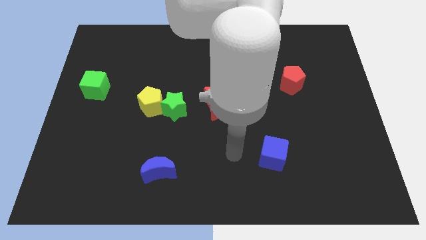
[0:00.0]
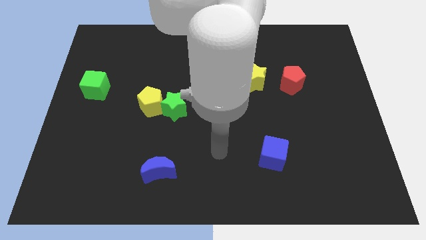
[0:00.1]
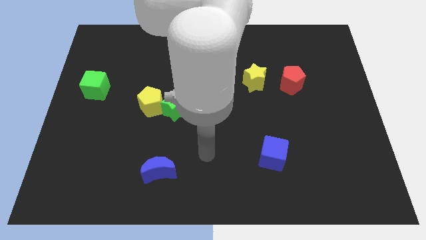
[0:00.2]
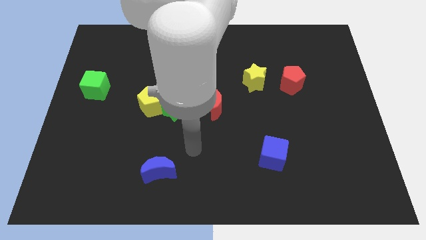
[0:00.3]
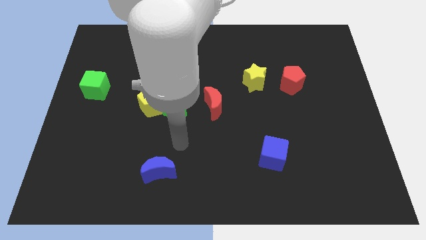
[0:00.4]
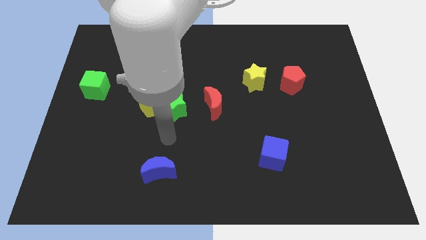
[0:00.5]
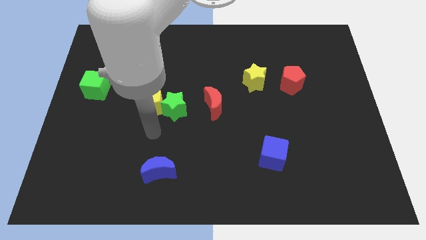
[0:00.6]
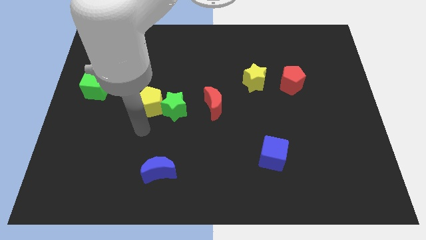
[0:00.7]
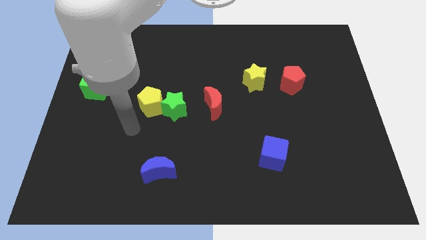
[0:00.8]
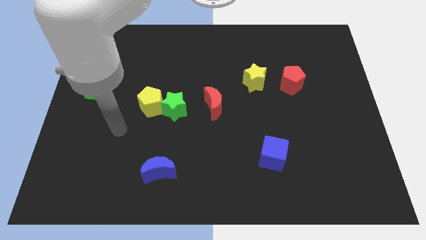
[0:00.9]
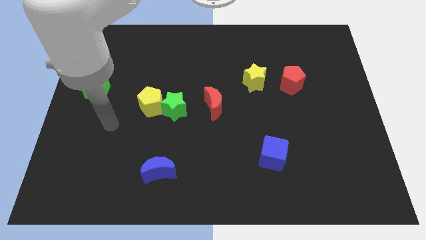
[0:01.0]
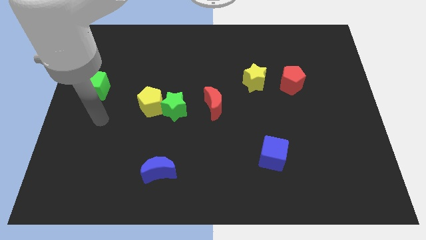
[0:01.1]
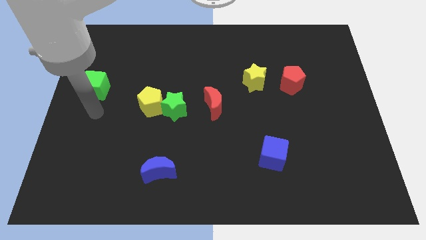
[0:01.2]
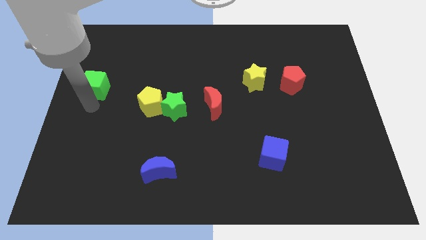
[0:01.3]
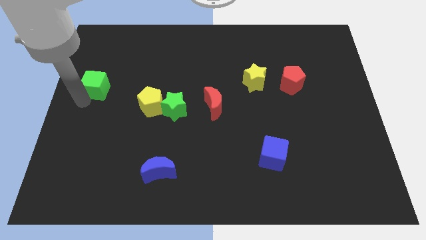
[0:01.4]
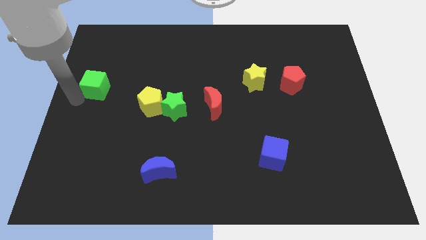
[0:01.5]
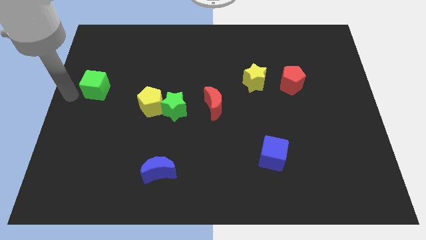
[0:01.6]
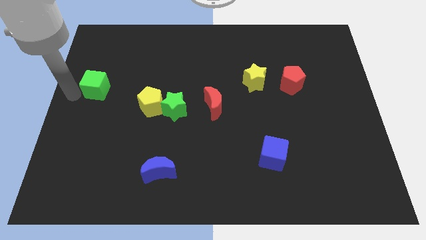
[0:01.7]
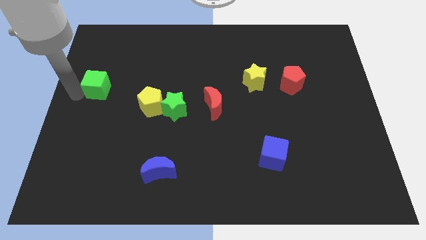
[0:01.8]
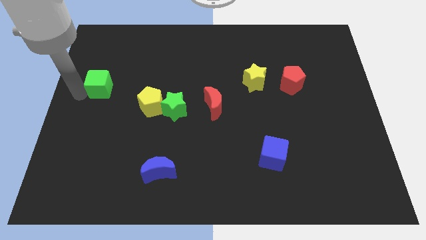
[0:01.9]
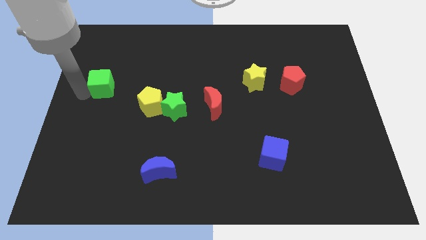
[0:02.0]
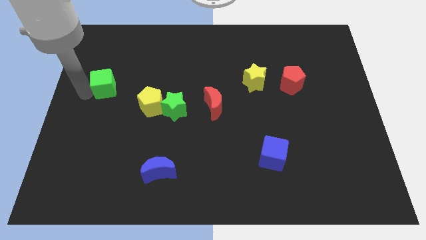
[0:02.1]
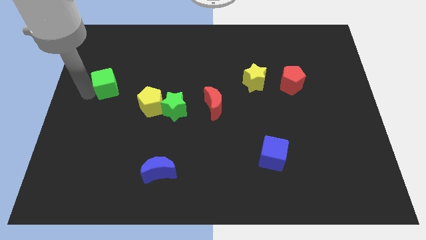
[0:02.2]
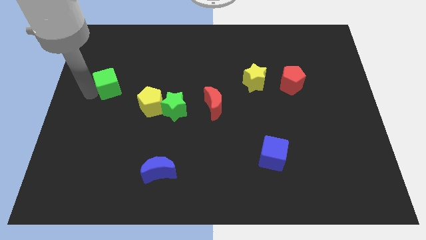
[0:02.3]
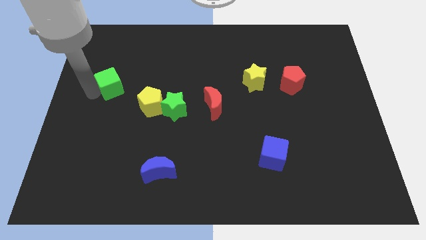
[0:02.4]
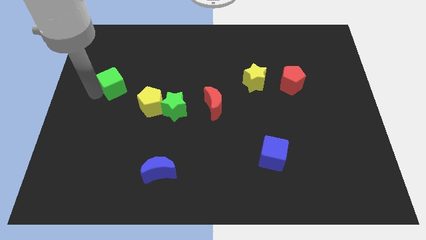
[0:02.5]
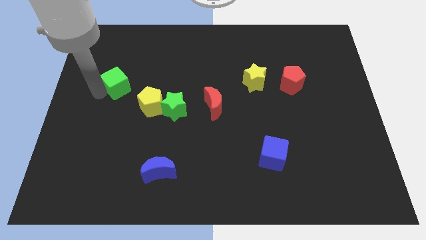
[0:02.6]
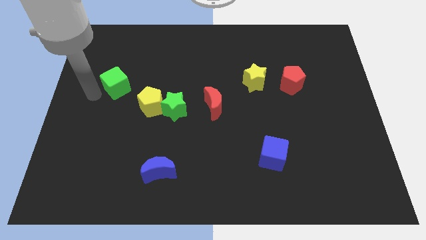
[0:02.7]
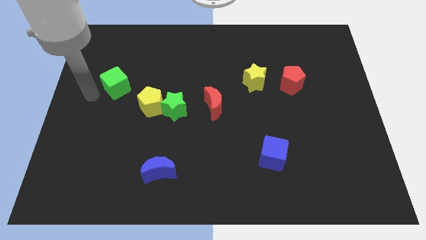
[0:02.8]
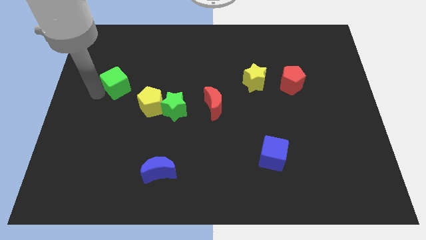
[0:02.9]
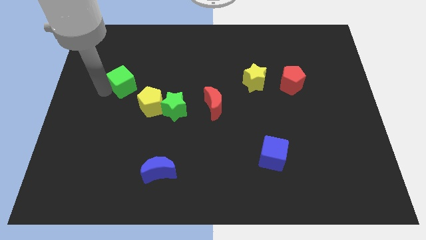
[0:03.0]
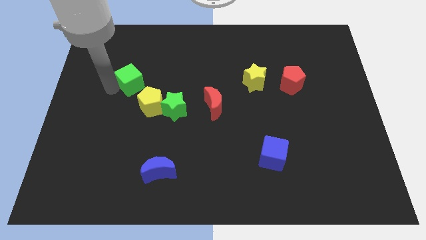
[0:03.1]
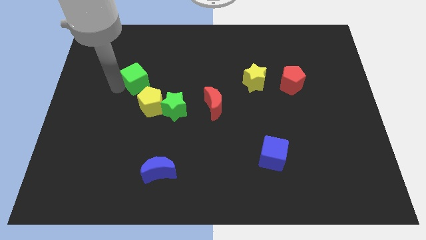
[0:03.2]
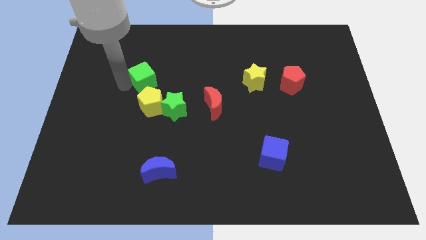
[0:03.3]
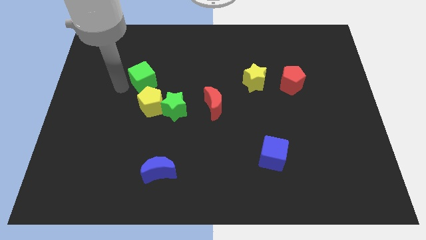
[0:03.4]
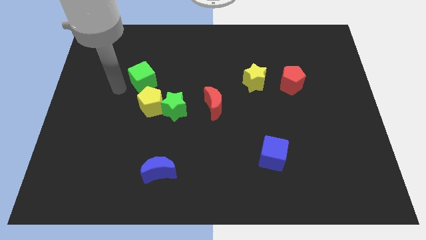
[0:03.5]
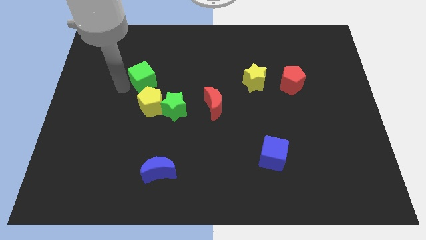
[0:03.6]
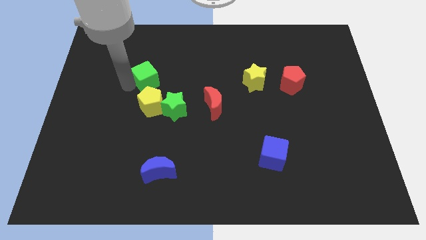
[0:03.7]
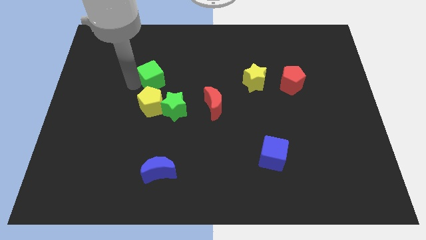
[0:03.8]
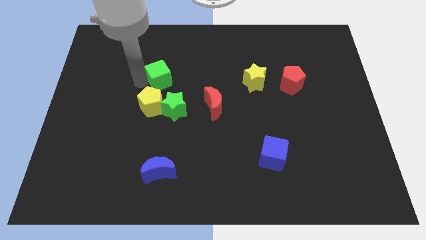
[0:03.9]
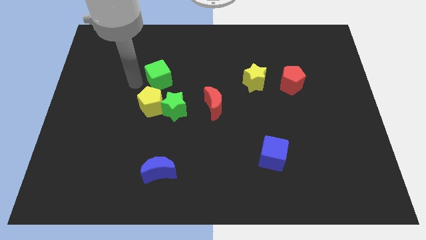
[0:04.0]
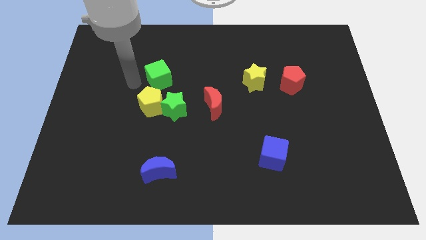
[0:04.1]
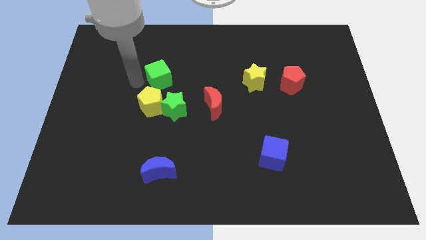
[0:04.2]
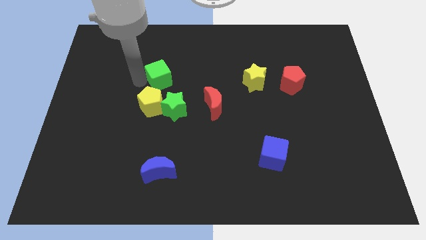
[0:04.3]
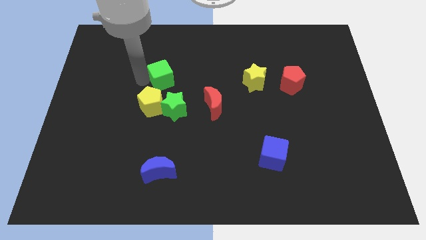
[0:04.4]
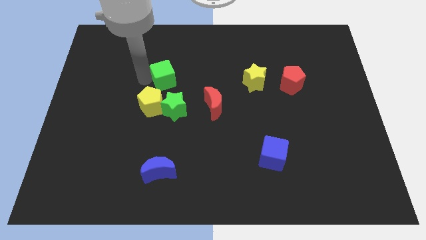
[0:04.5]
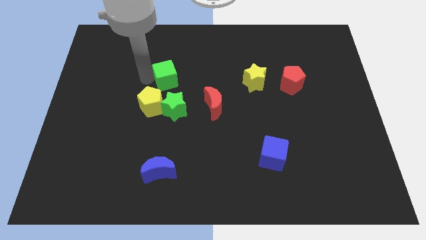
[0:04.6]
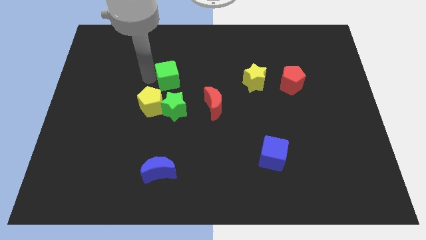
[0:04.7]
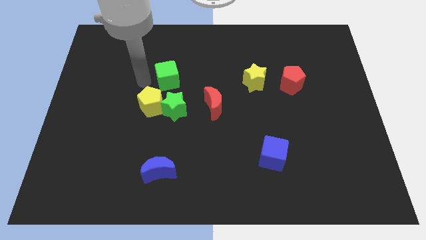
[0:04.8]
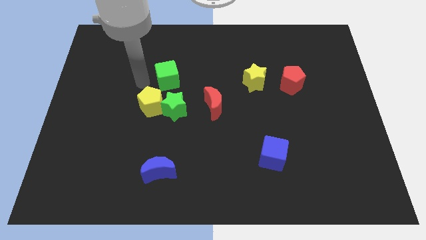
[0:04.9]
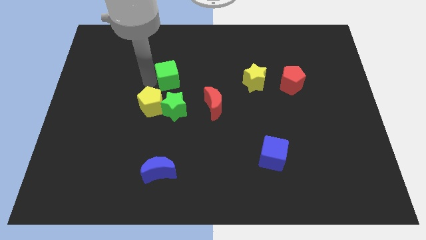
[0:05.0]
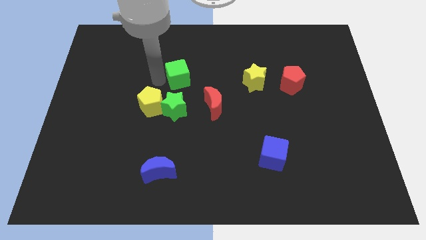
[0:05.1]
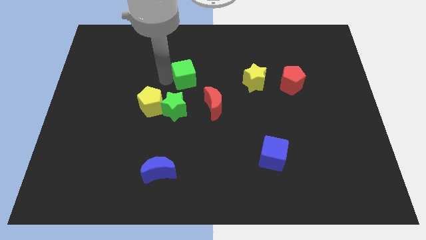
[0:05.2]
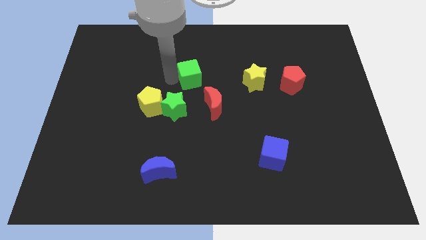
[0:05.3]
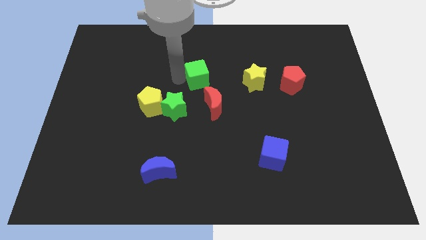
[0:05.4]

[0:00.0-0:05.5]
slide the green cube above the red moon

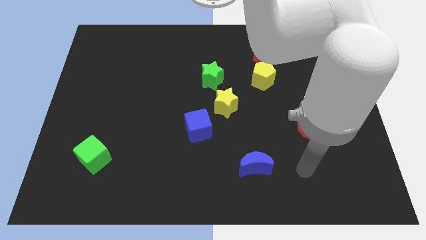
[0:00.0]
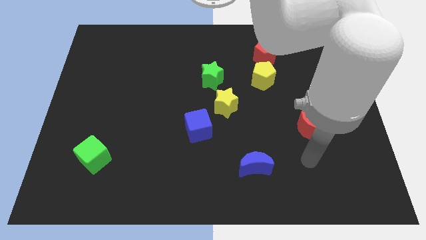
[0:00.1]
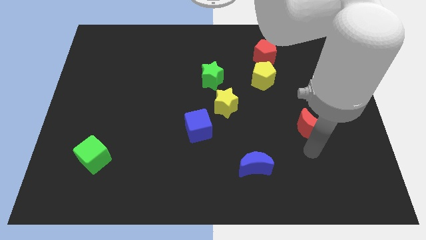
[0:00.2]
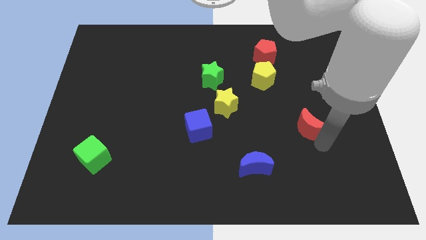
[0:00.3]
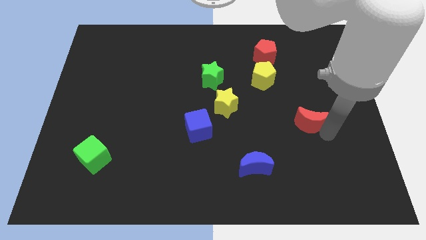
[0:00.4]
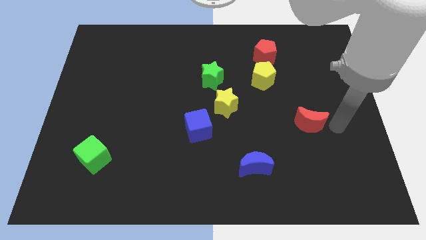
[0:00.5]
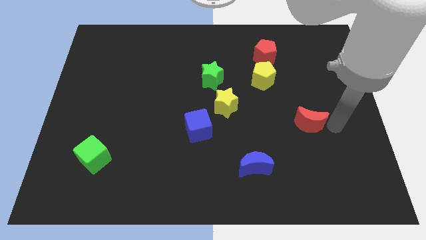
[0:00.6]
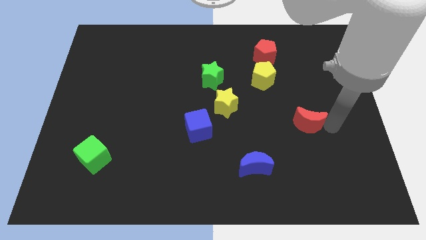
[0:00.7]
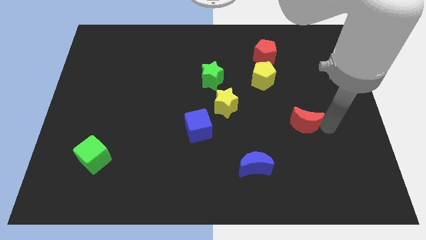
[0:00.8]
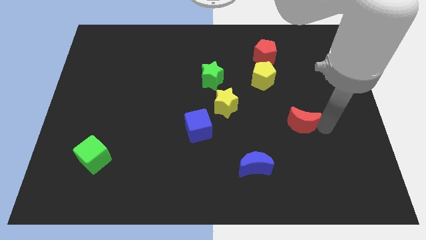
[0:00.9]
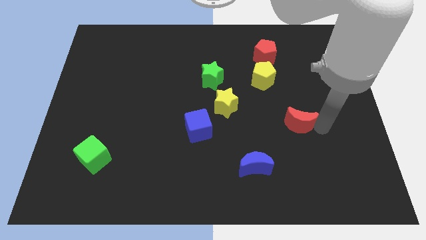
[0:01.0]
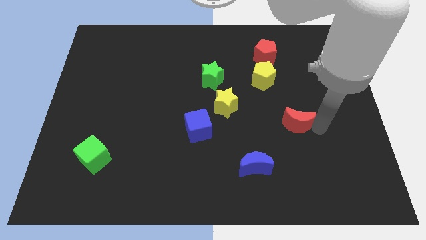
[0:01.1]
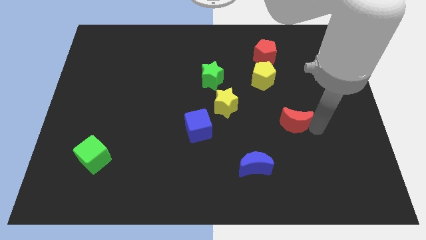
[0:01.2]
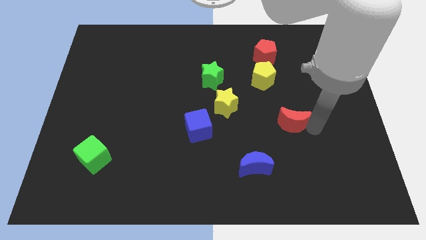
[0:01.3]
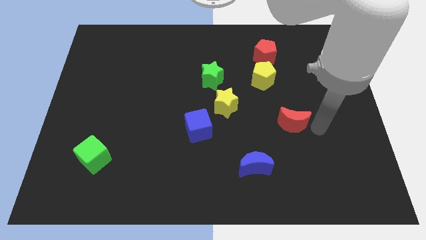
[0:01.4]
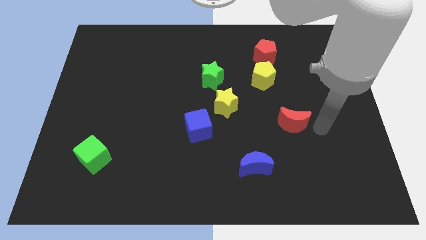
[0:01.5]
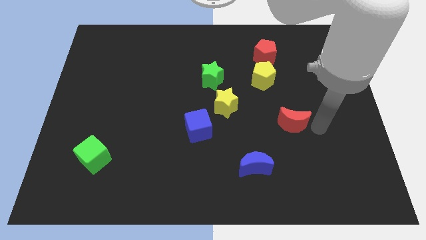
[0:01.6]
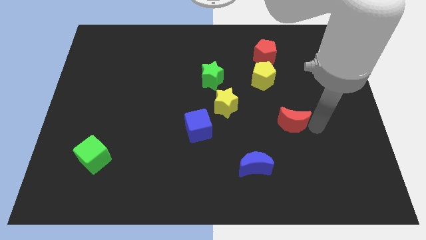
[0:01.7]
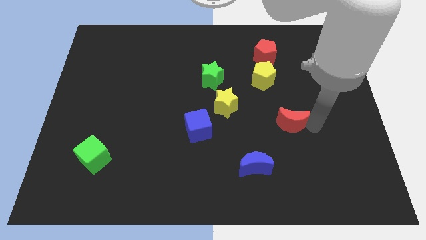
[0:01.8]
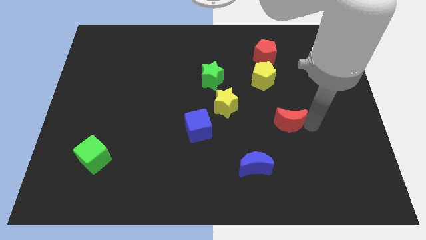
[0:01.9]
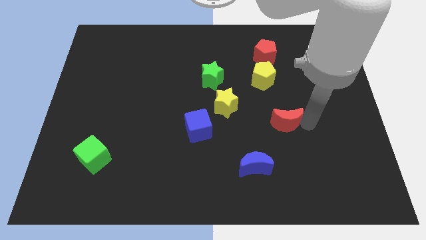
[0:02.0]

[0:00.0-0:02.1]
put the red moon to the bottom side of the yellow pentagon
